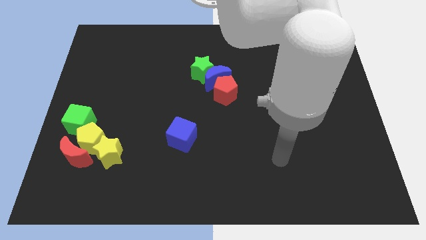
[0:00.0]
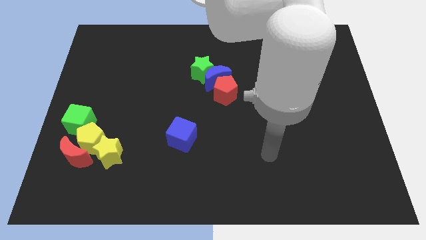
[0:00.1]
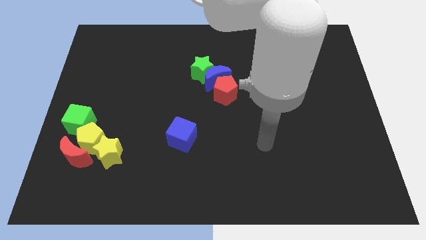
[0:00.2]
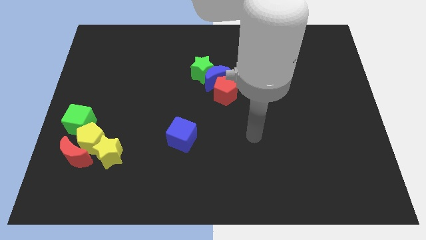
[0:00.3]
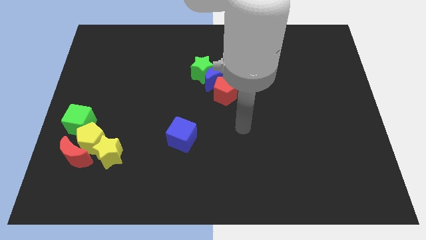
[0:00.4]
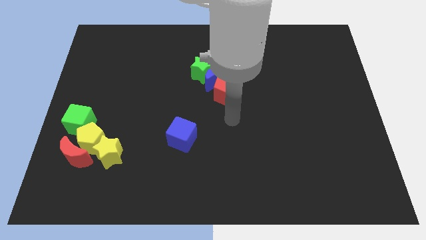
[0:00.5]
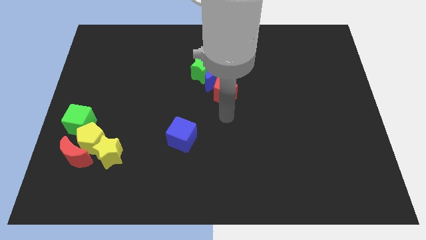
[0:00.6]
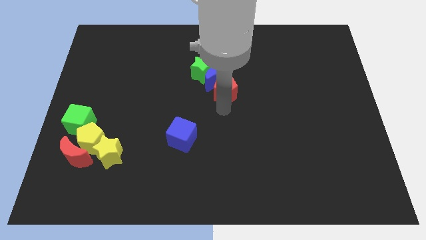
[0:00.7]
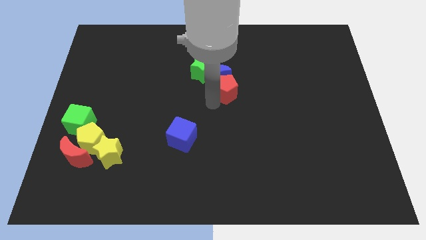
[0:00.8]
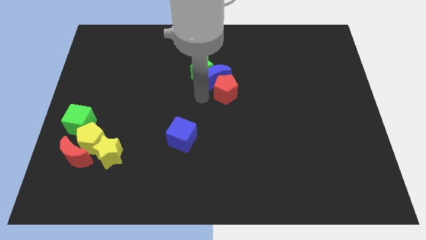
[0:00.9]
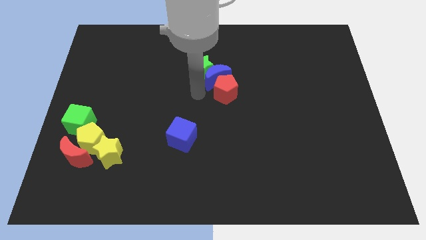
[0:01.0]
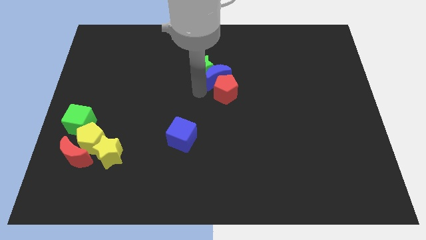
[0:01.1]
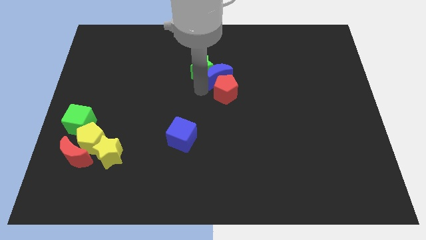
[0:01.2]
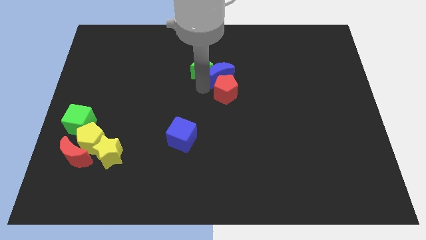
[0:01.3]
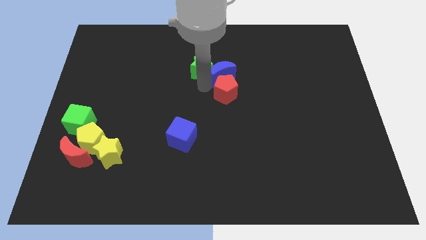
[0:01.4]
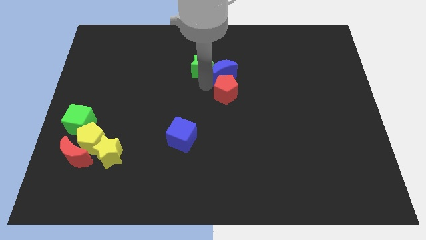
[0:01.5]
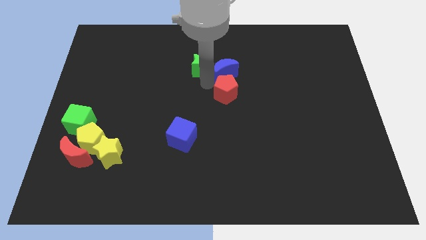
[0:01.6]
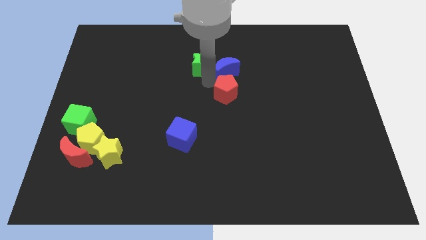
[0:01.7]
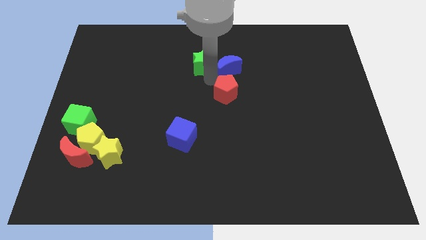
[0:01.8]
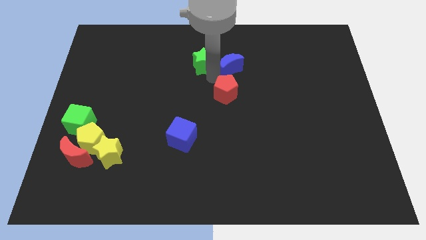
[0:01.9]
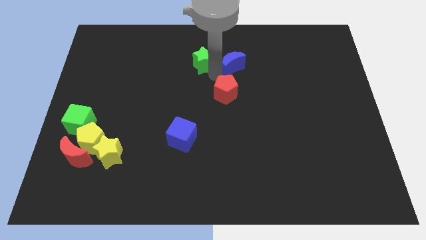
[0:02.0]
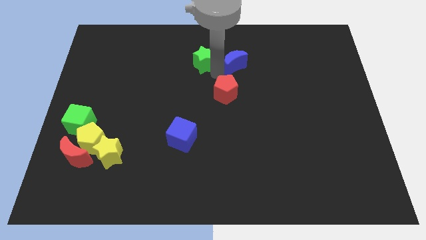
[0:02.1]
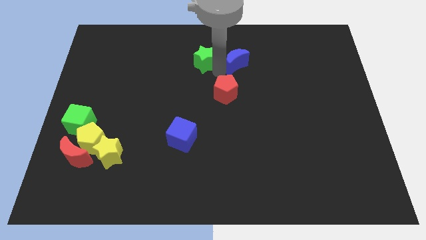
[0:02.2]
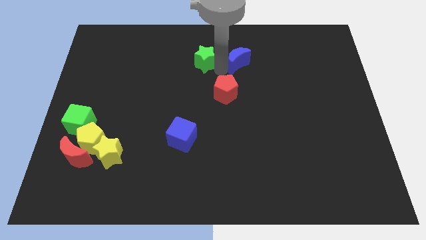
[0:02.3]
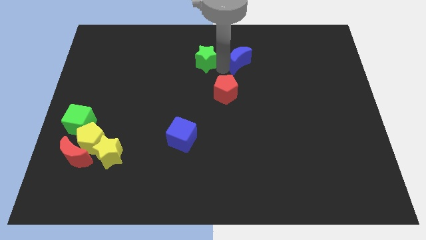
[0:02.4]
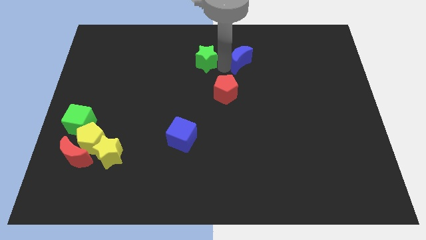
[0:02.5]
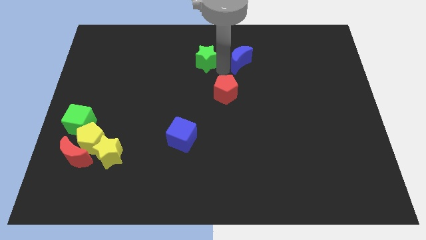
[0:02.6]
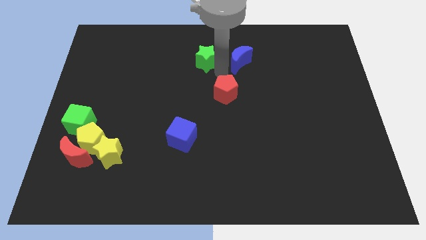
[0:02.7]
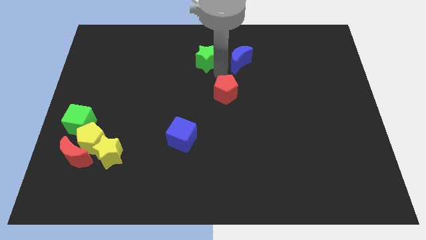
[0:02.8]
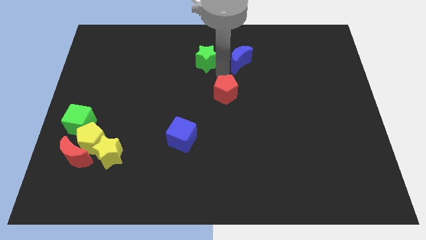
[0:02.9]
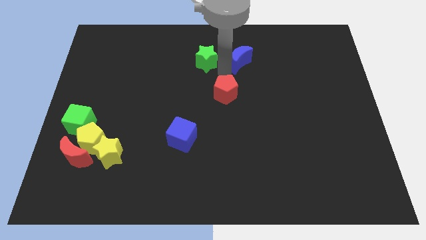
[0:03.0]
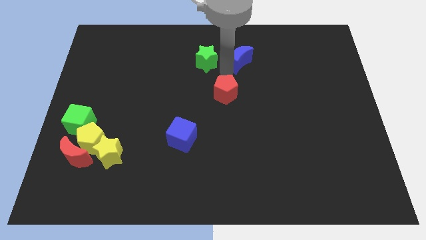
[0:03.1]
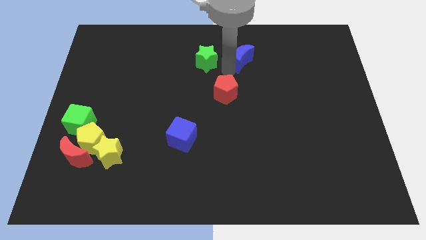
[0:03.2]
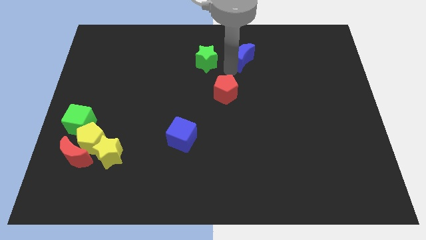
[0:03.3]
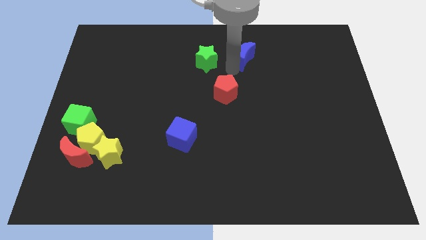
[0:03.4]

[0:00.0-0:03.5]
move the blue moon away from the green star and red pentagon

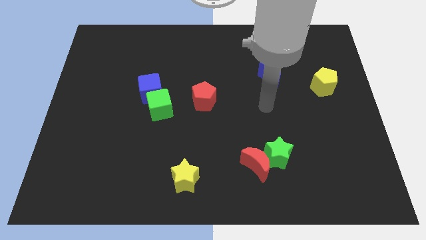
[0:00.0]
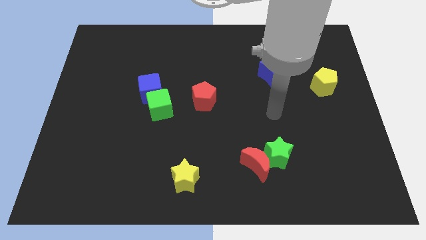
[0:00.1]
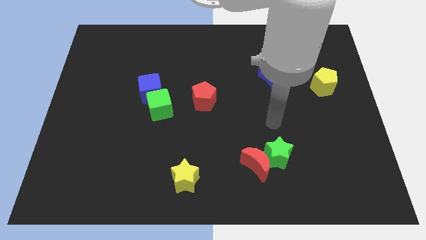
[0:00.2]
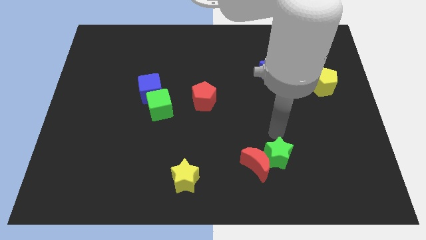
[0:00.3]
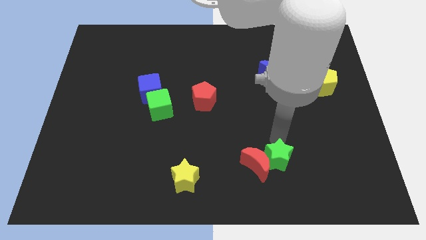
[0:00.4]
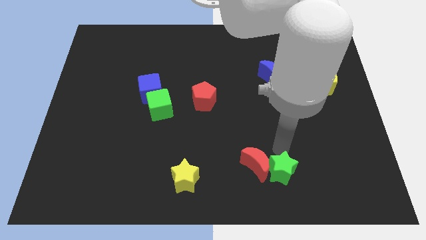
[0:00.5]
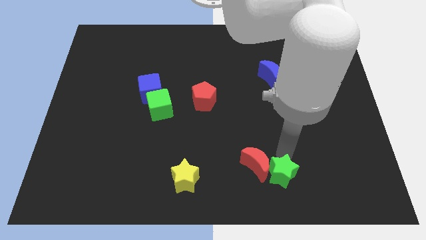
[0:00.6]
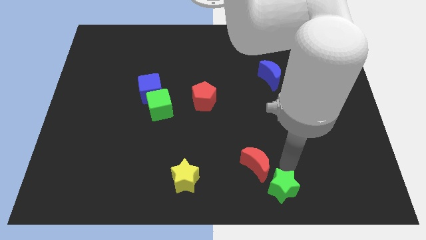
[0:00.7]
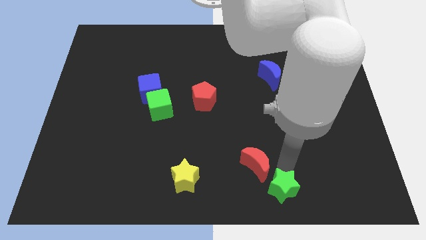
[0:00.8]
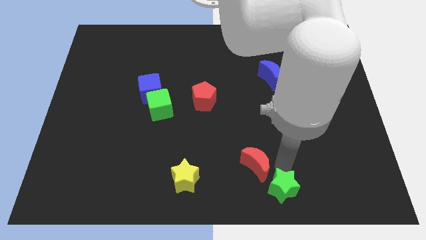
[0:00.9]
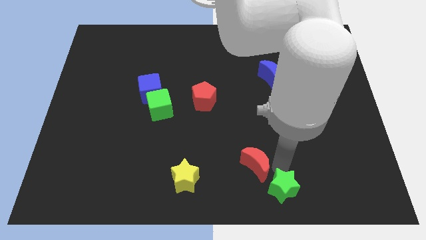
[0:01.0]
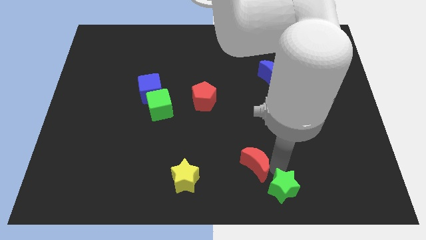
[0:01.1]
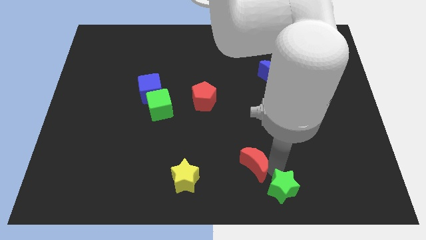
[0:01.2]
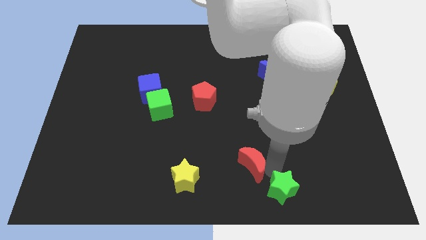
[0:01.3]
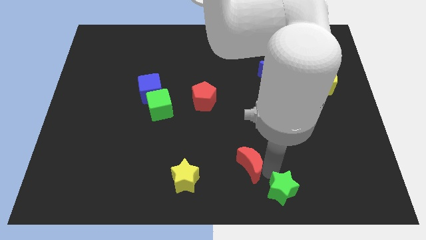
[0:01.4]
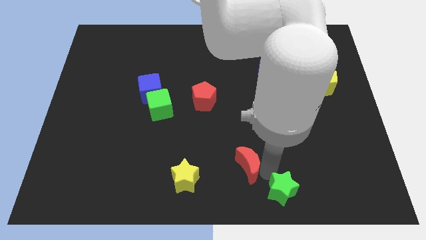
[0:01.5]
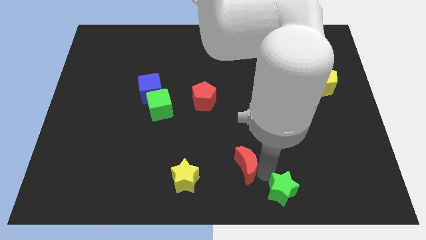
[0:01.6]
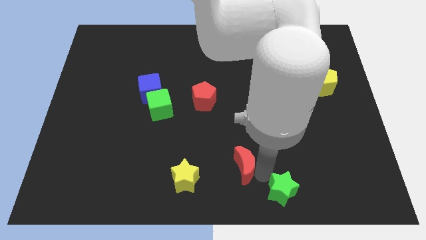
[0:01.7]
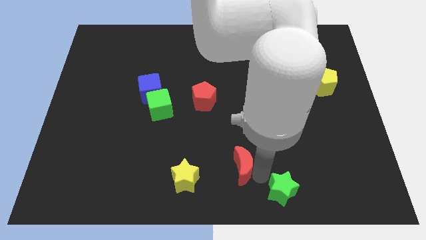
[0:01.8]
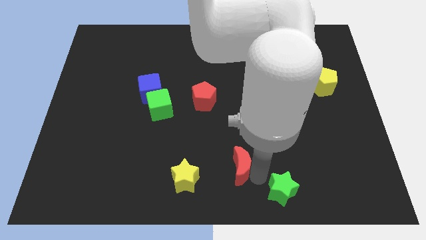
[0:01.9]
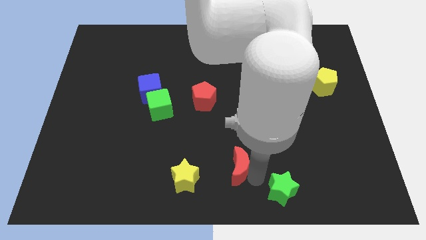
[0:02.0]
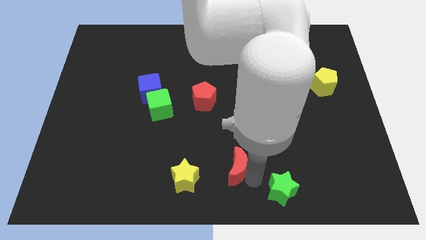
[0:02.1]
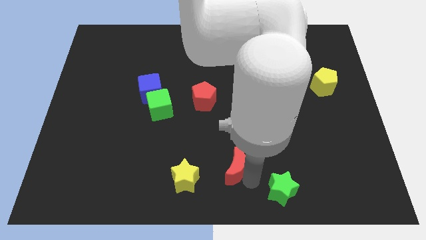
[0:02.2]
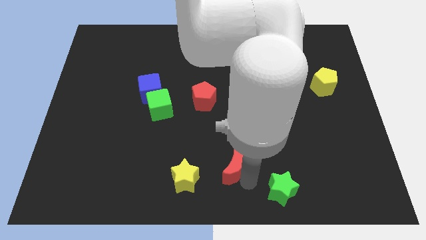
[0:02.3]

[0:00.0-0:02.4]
separate the red moon from the green star

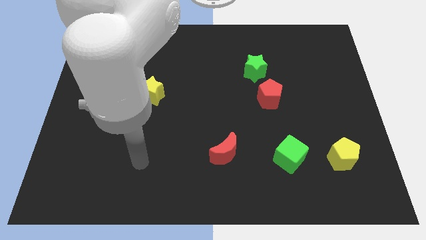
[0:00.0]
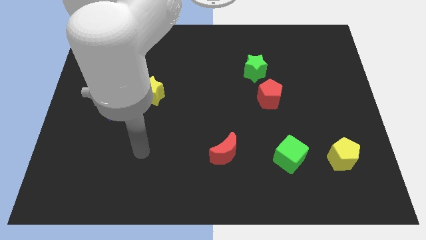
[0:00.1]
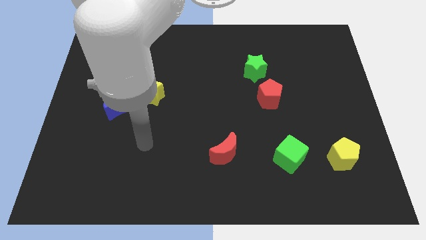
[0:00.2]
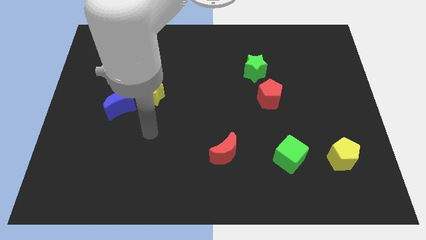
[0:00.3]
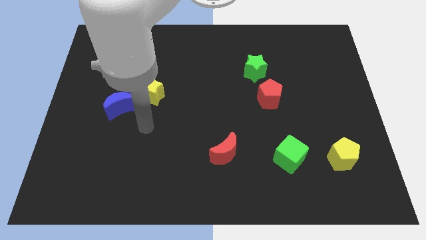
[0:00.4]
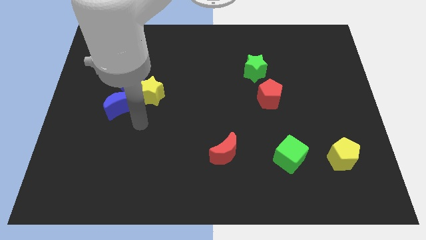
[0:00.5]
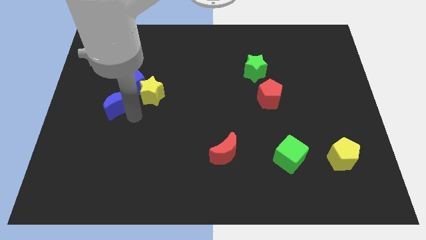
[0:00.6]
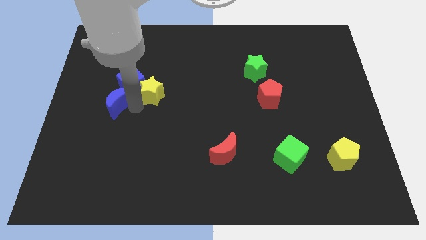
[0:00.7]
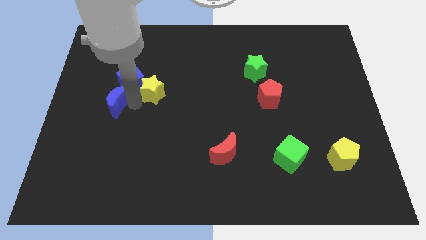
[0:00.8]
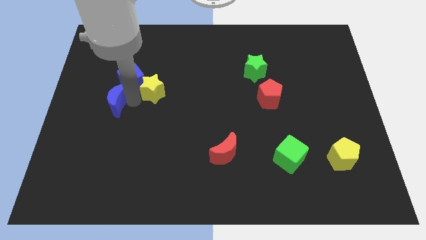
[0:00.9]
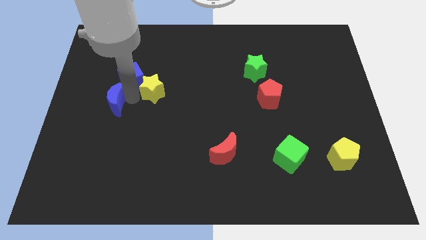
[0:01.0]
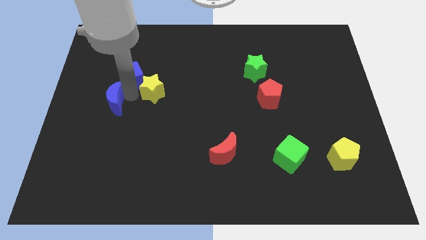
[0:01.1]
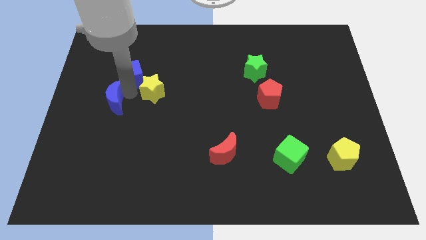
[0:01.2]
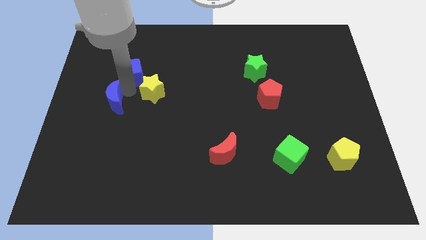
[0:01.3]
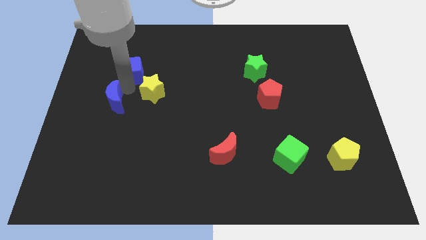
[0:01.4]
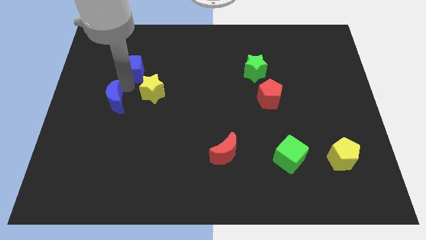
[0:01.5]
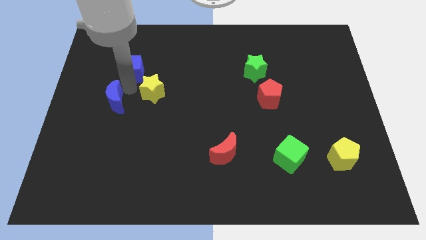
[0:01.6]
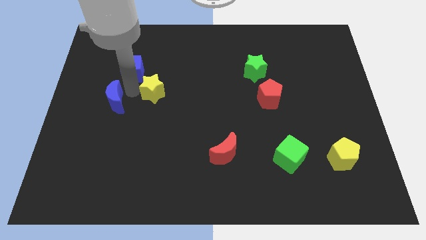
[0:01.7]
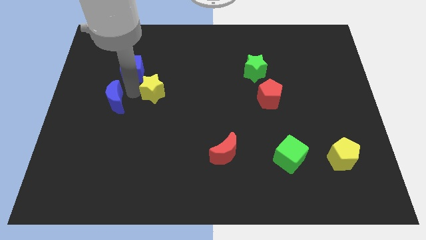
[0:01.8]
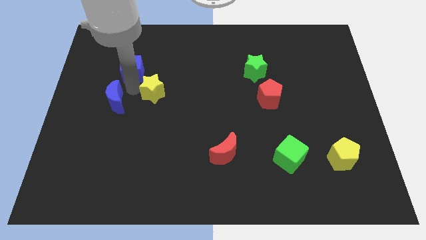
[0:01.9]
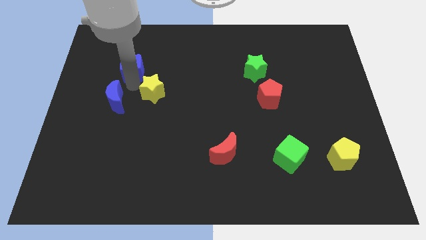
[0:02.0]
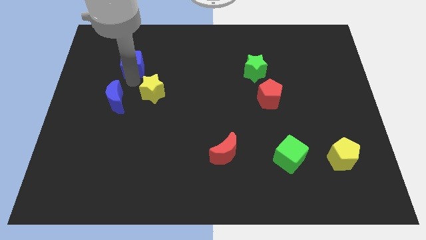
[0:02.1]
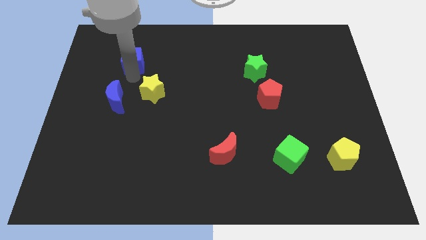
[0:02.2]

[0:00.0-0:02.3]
separate the blue cube from the yellow star and blue moon

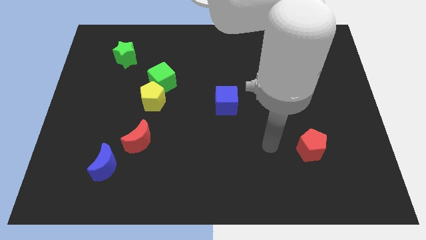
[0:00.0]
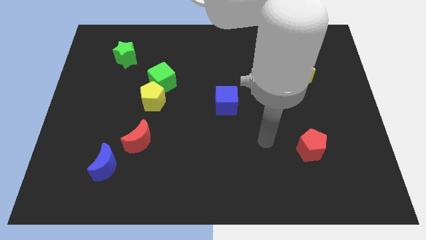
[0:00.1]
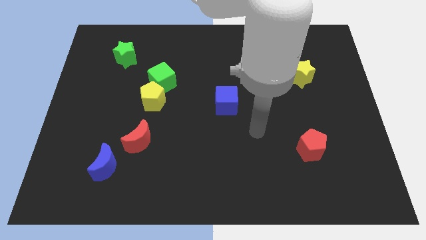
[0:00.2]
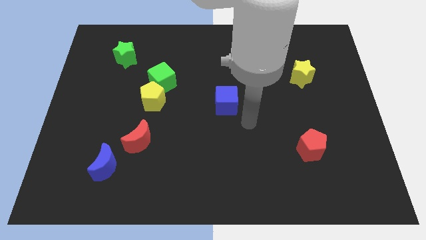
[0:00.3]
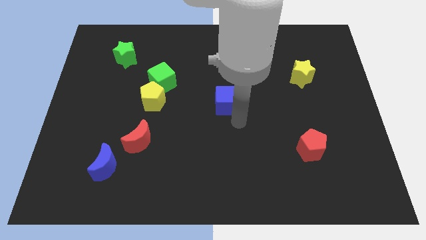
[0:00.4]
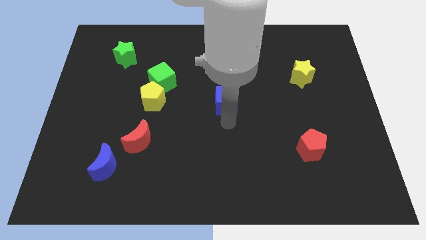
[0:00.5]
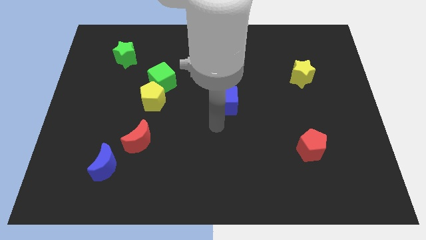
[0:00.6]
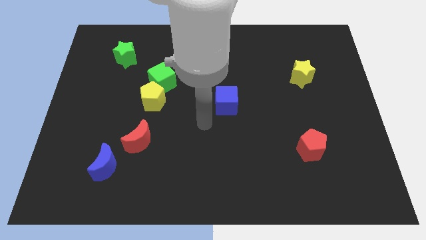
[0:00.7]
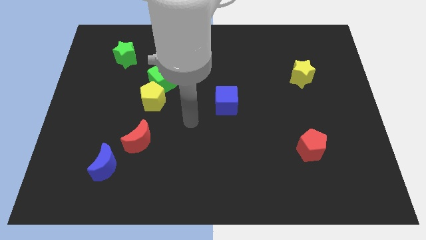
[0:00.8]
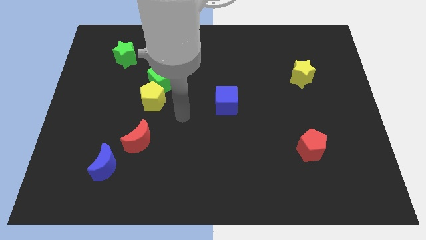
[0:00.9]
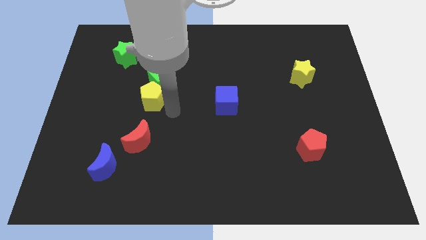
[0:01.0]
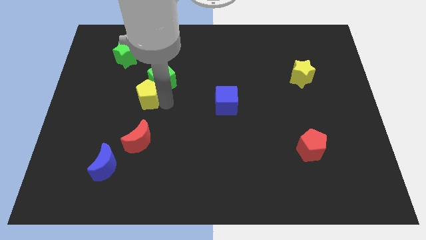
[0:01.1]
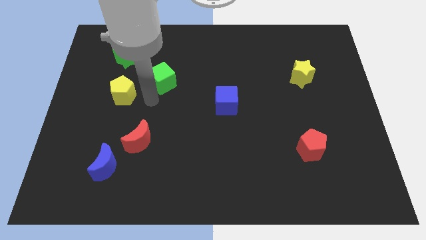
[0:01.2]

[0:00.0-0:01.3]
move the green cube away from the yellow pentagon
